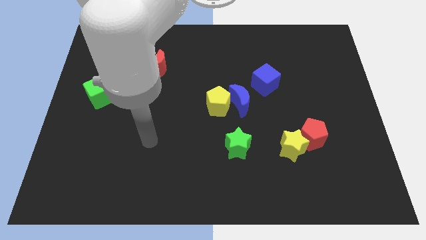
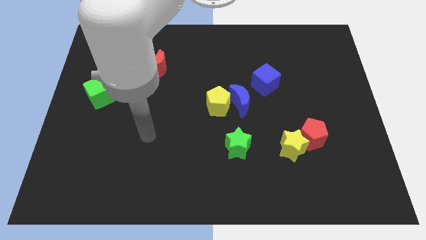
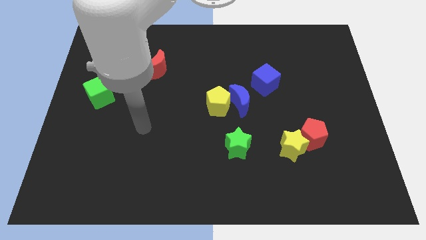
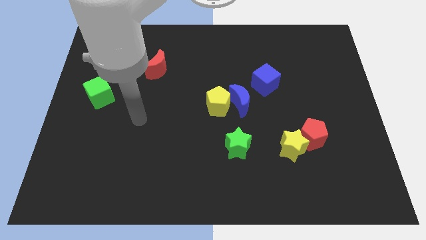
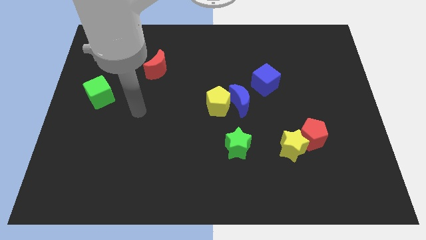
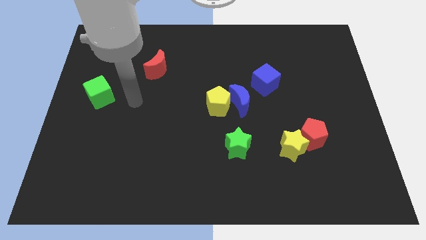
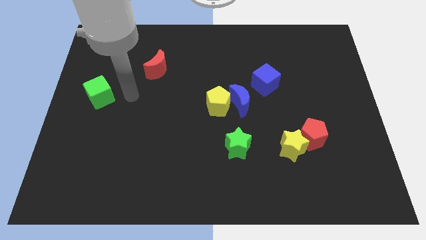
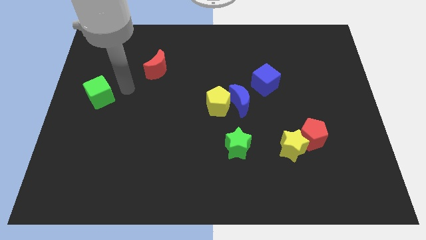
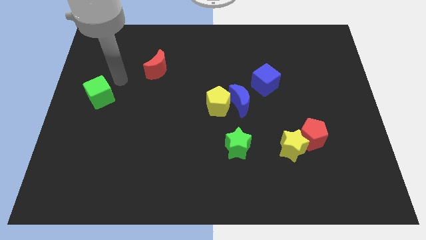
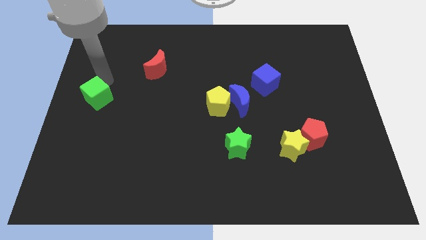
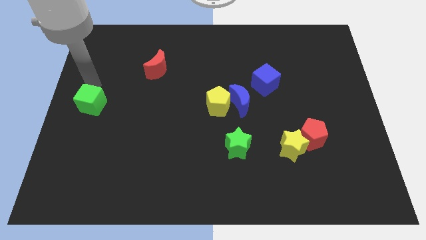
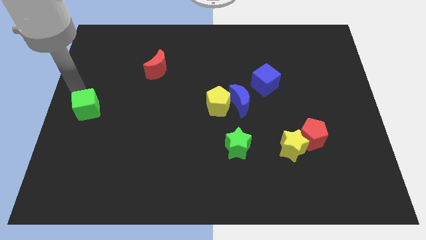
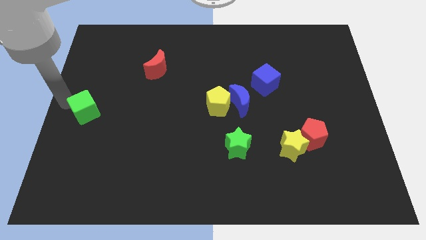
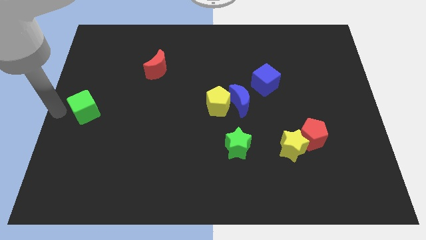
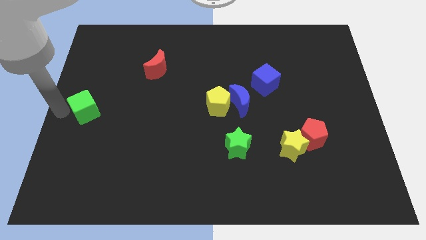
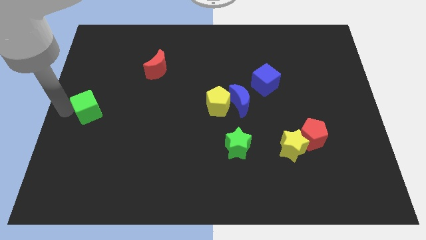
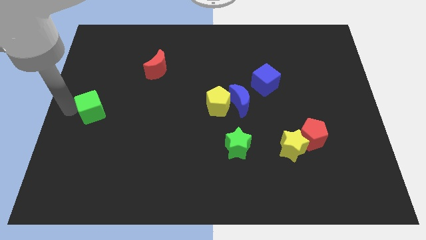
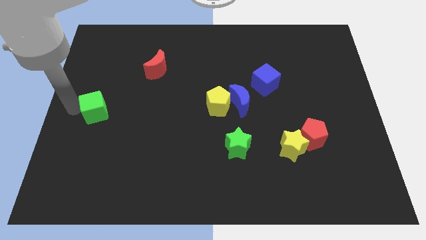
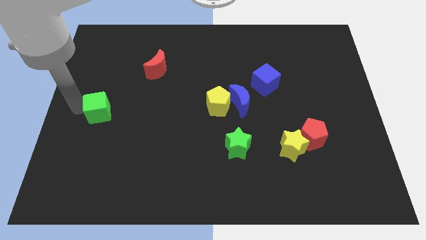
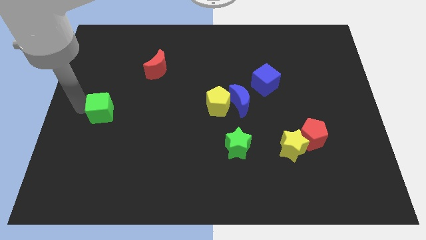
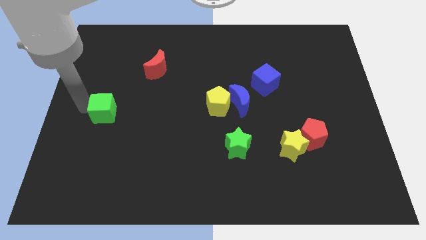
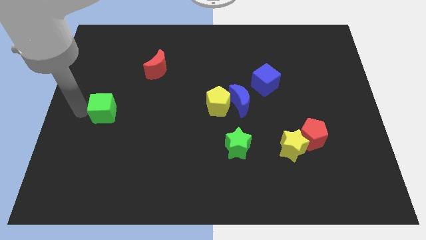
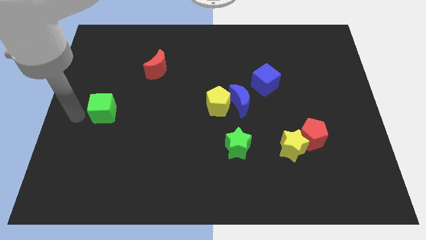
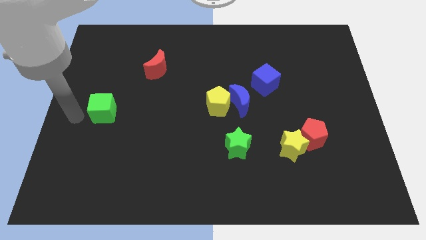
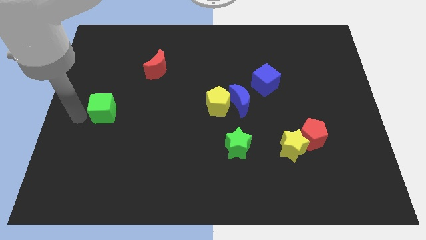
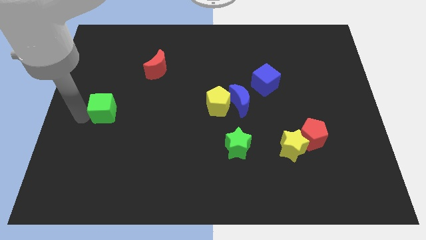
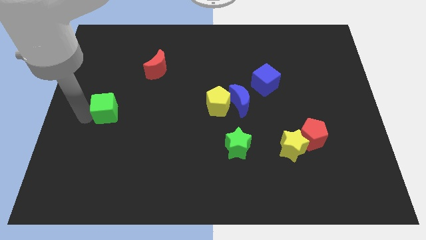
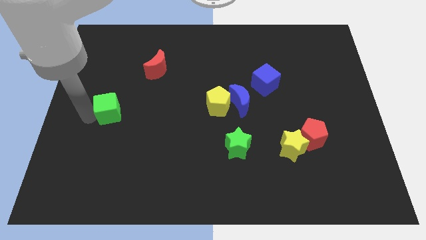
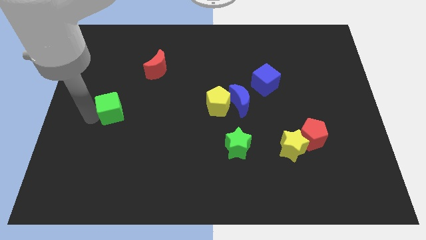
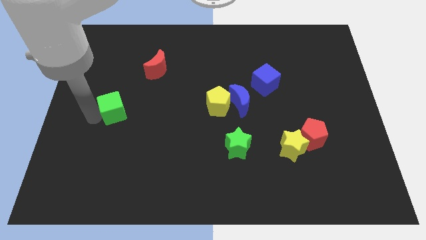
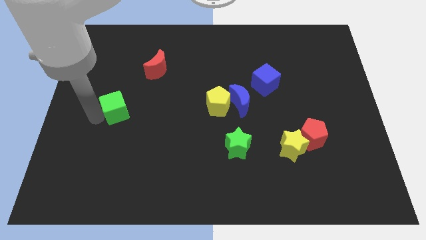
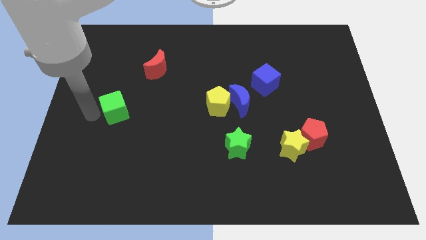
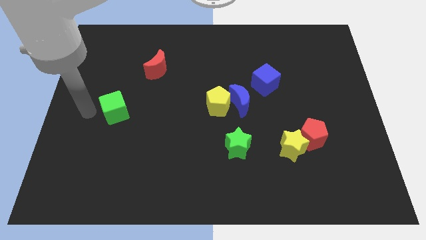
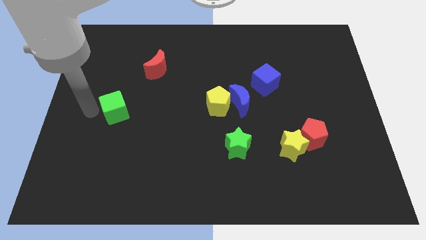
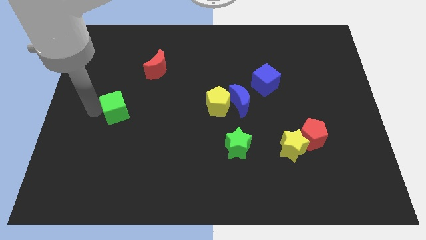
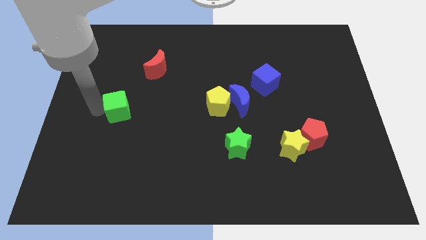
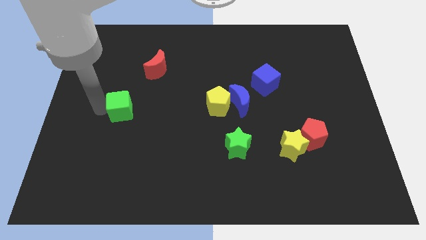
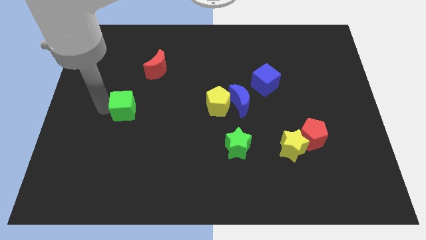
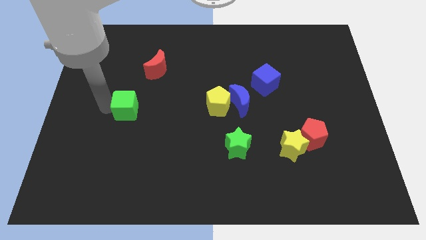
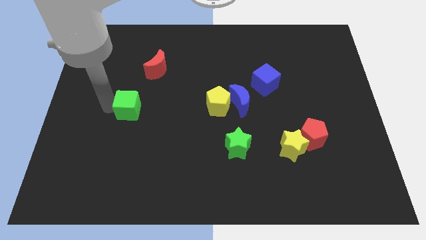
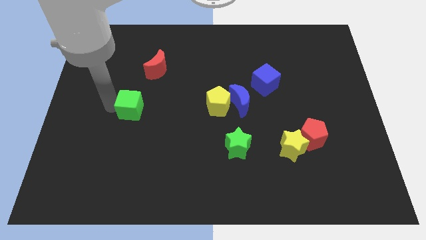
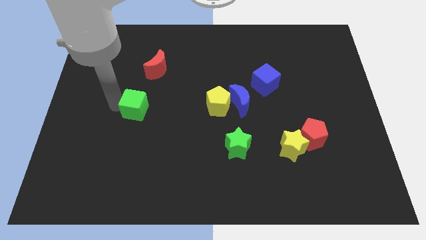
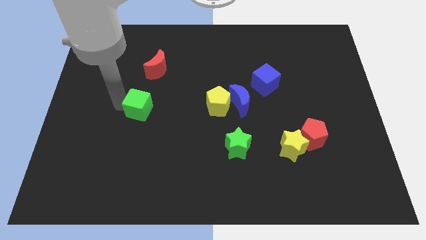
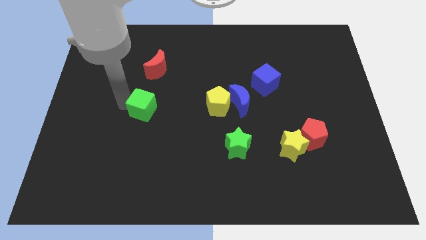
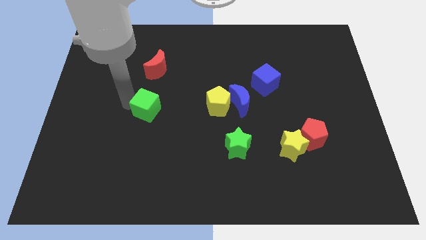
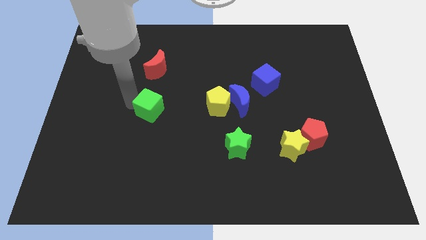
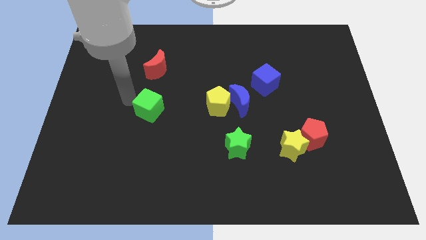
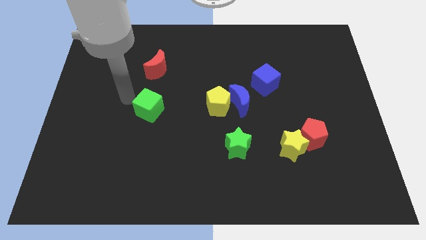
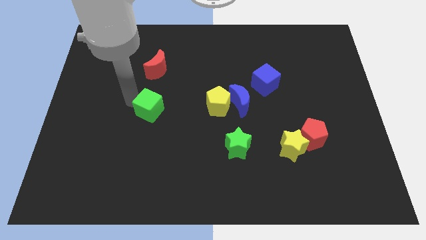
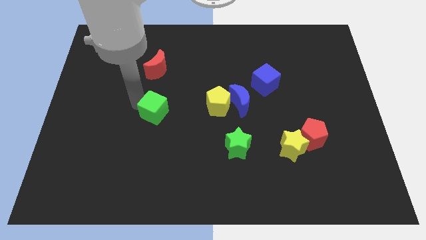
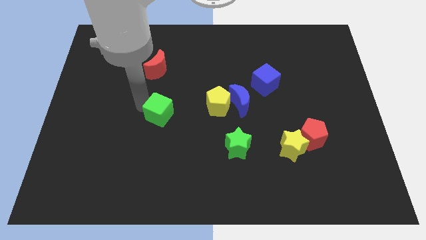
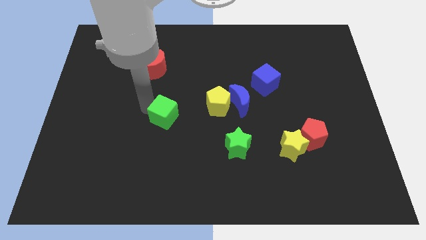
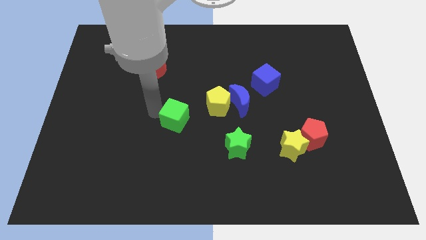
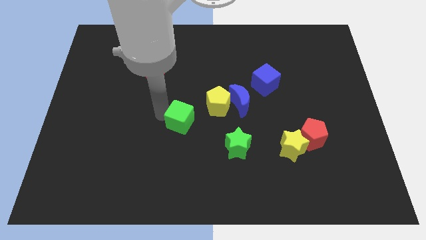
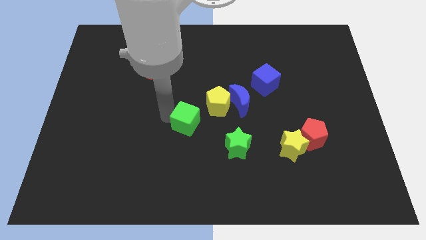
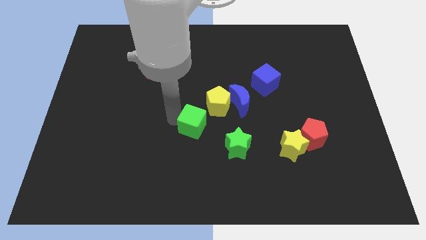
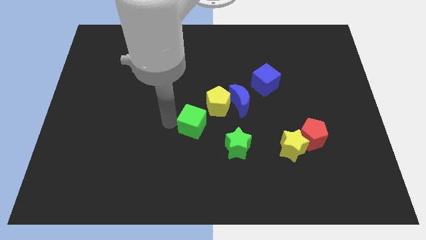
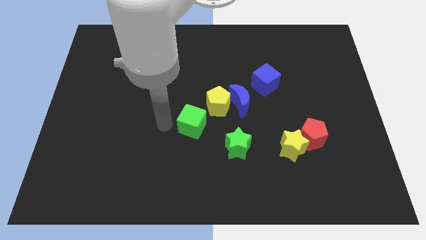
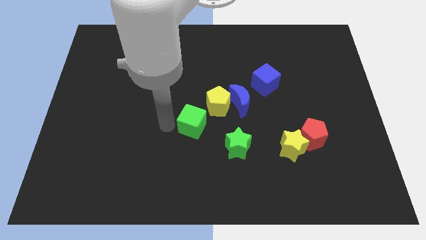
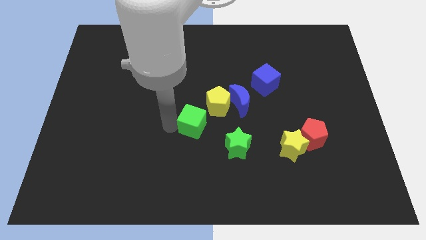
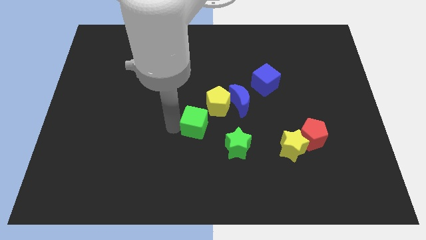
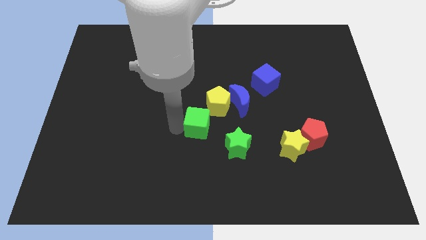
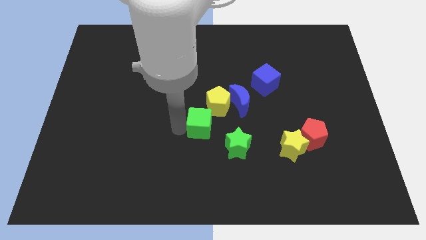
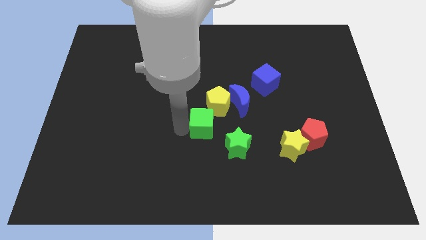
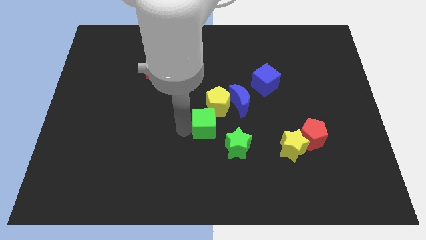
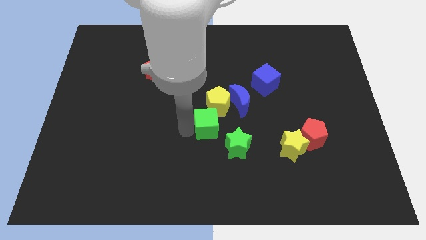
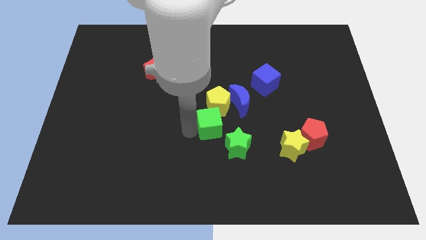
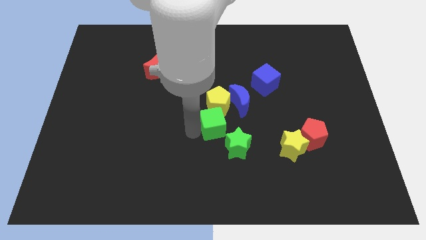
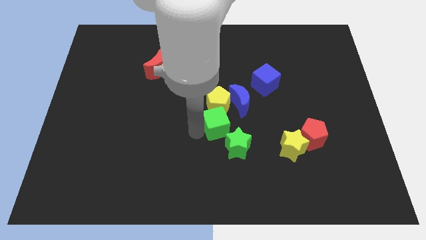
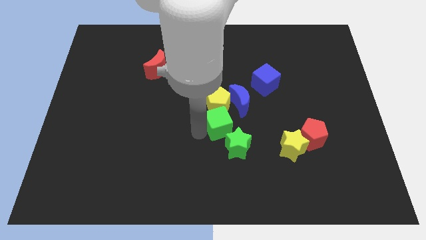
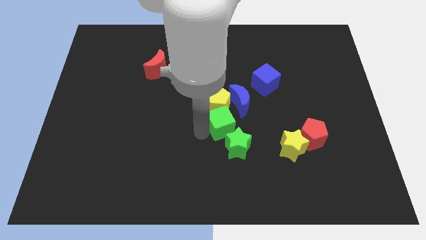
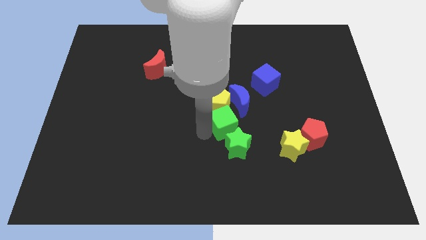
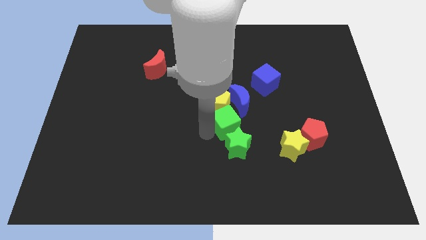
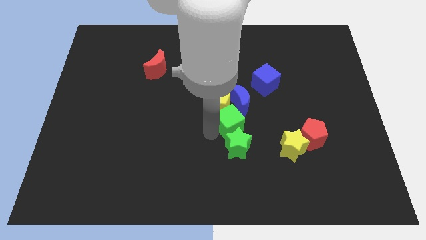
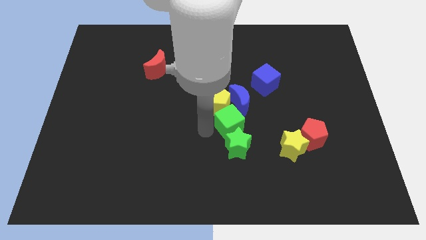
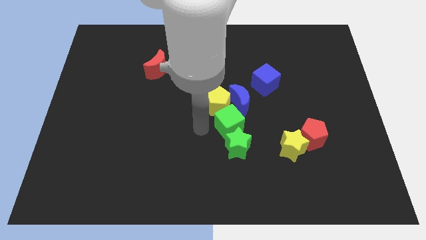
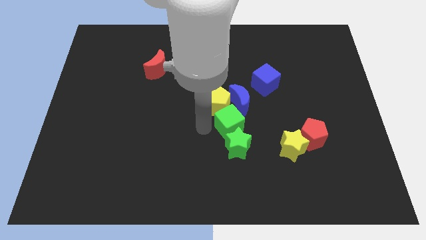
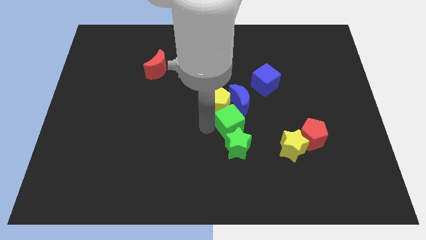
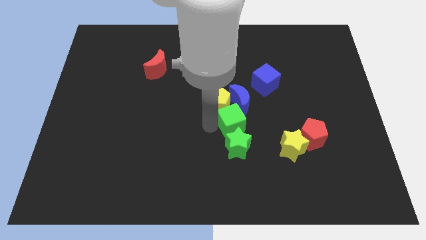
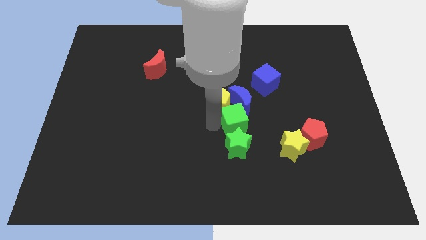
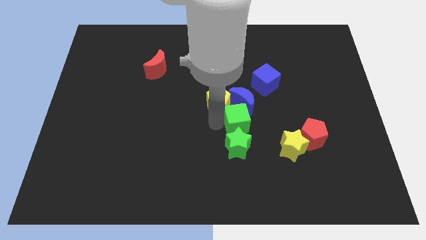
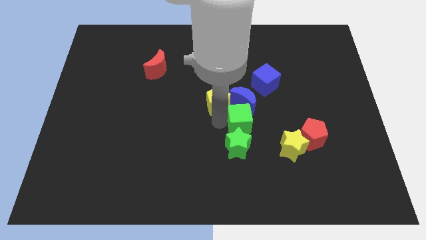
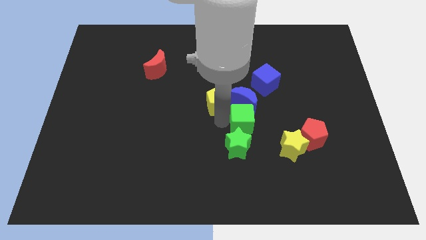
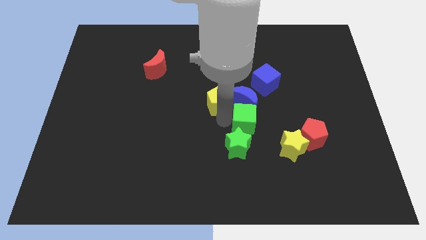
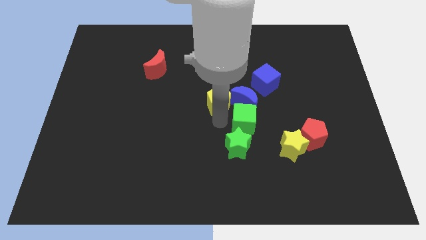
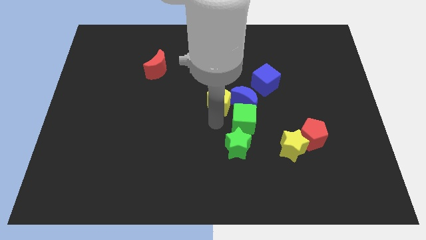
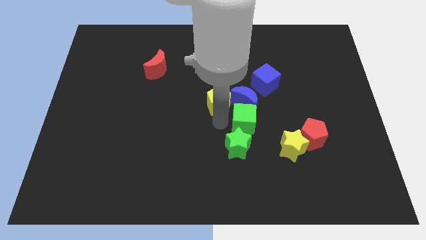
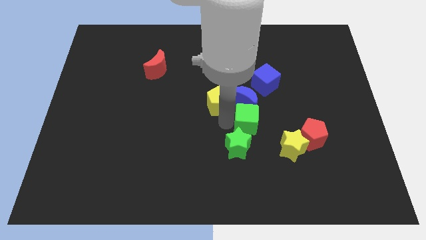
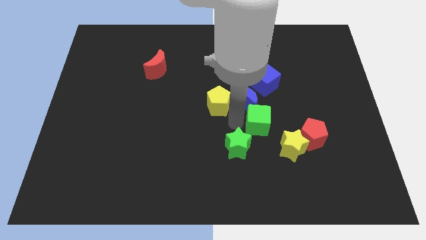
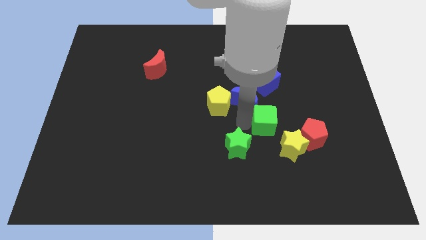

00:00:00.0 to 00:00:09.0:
slide the green cube diagonally up and to the left of the red pentagon
